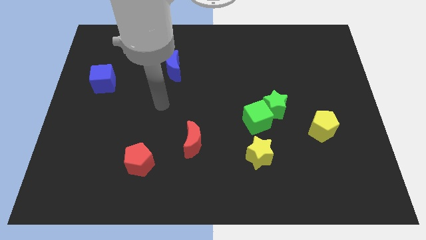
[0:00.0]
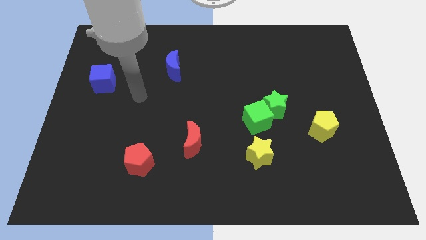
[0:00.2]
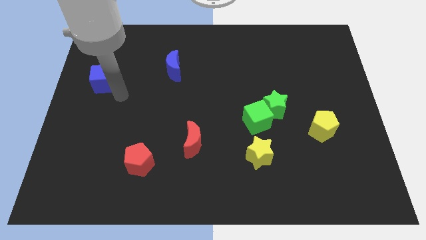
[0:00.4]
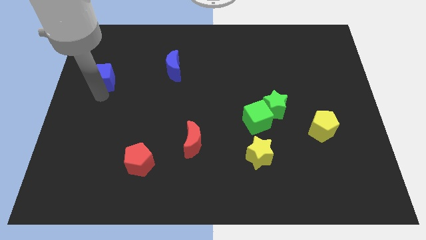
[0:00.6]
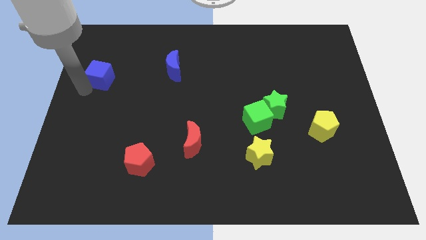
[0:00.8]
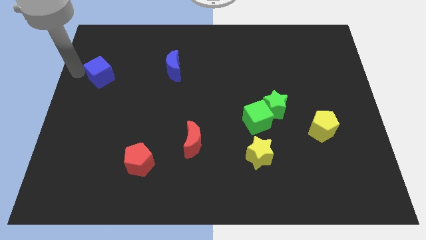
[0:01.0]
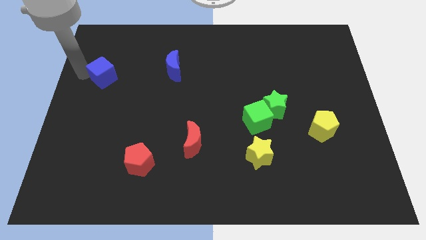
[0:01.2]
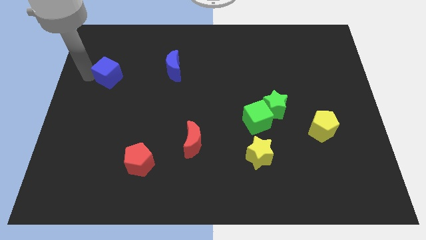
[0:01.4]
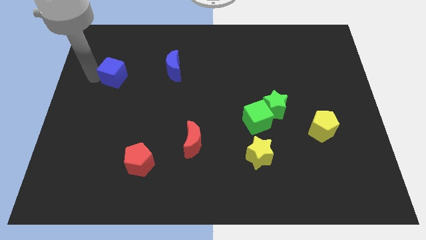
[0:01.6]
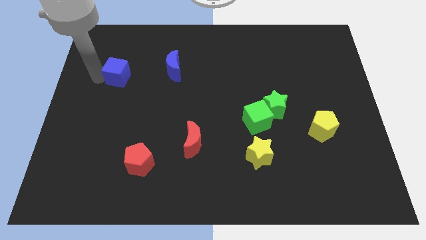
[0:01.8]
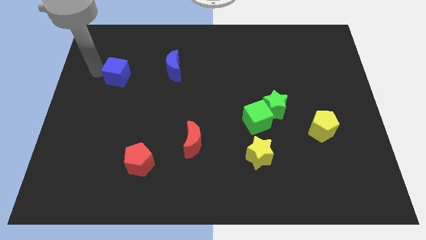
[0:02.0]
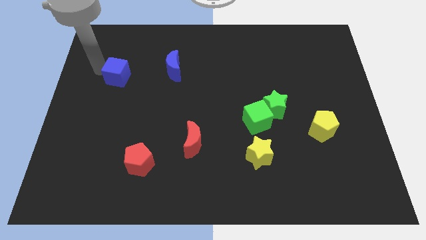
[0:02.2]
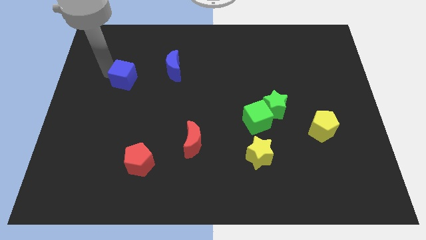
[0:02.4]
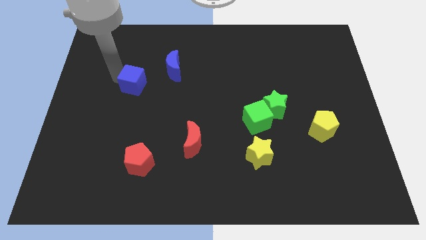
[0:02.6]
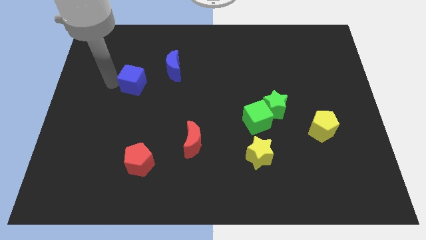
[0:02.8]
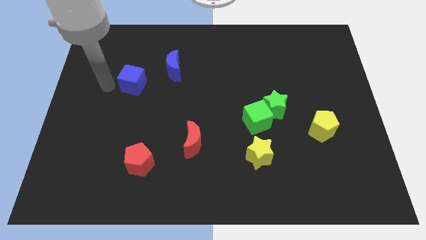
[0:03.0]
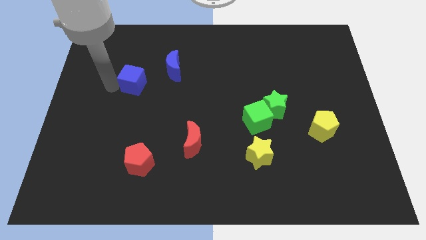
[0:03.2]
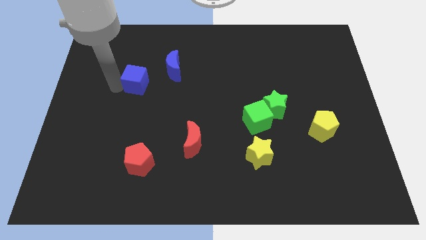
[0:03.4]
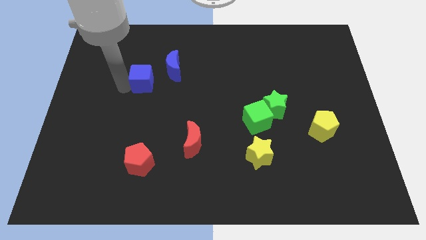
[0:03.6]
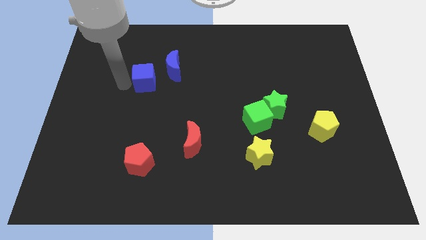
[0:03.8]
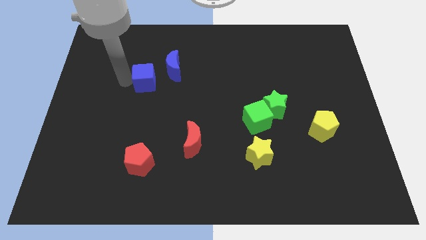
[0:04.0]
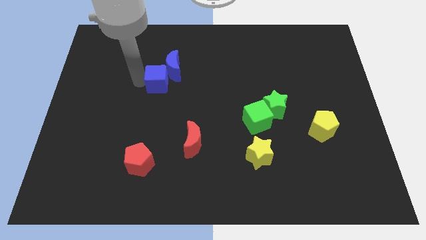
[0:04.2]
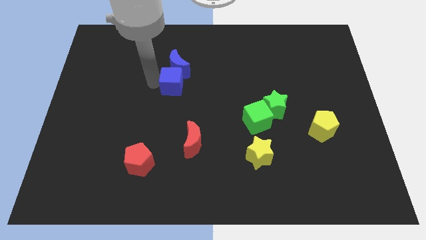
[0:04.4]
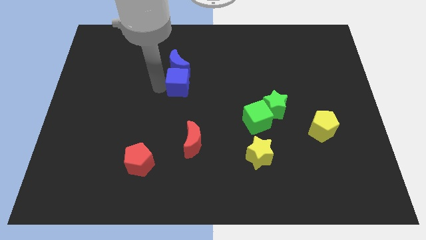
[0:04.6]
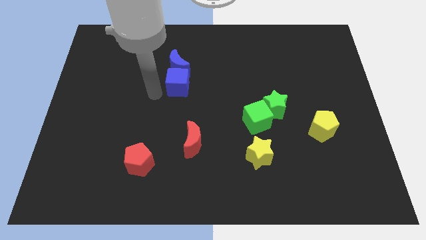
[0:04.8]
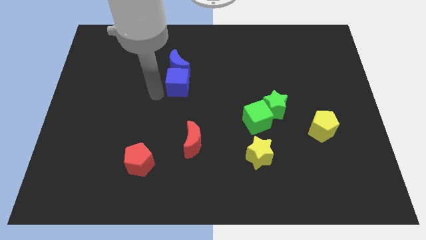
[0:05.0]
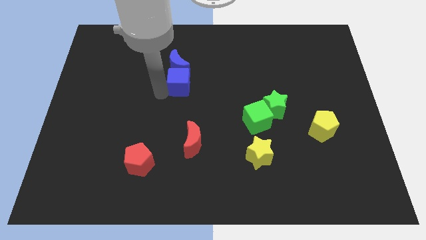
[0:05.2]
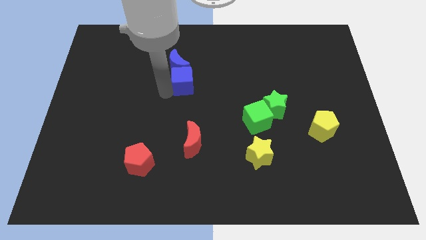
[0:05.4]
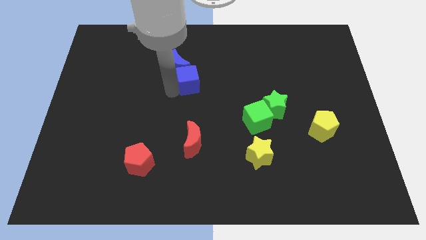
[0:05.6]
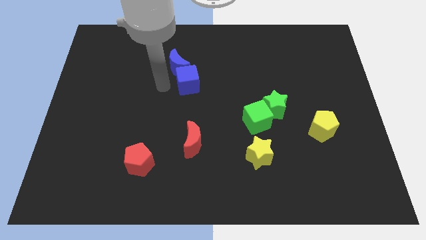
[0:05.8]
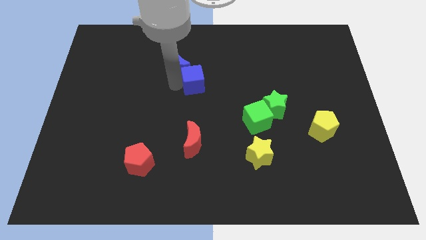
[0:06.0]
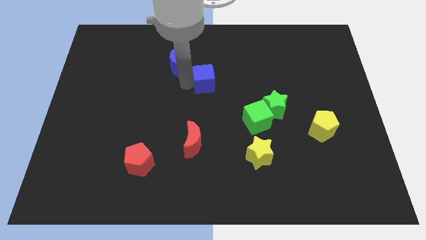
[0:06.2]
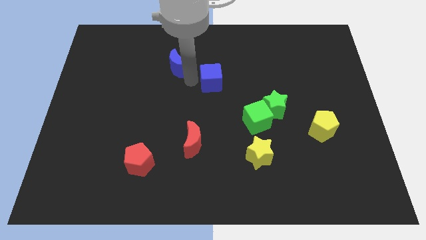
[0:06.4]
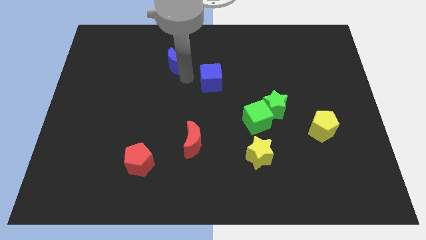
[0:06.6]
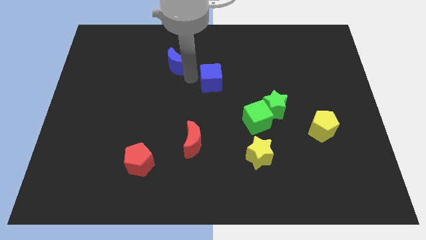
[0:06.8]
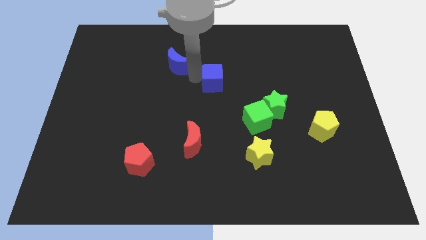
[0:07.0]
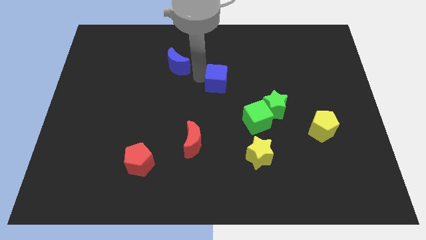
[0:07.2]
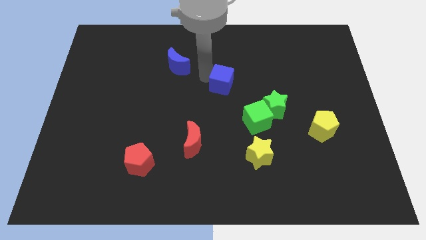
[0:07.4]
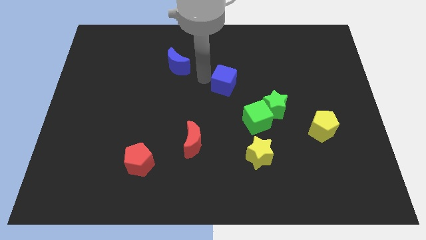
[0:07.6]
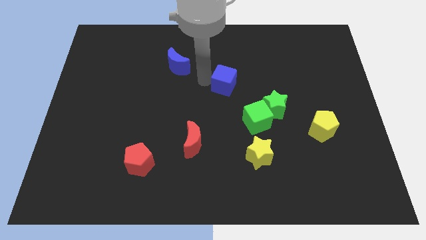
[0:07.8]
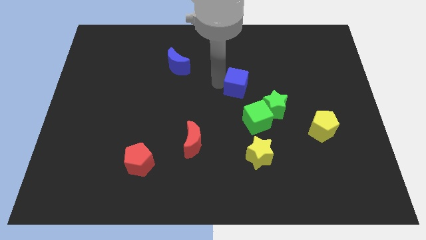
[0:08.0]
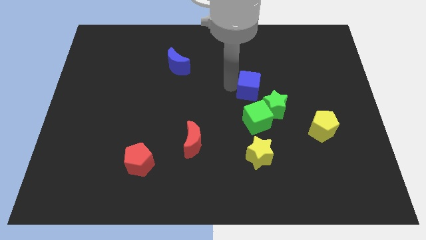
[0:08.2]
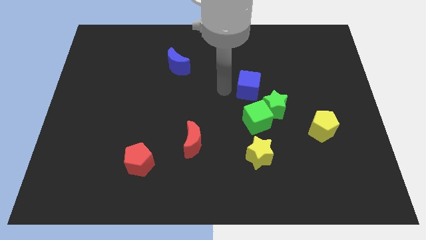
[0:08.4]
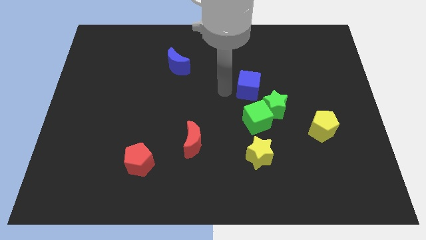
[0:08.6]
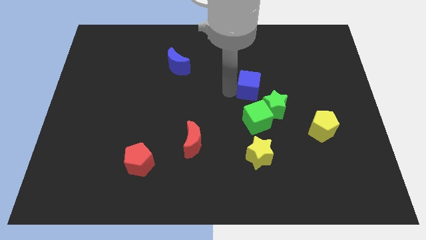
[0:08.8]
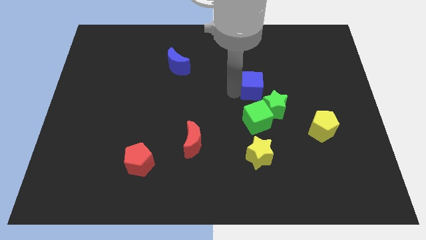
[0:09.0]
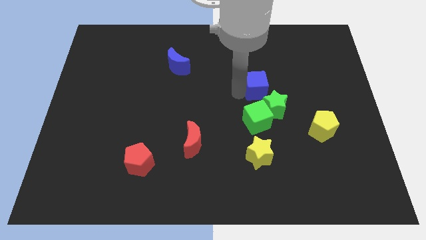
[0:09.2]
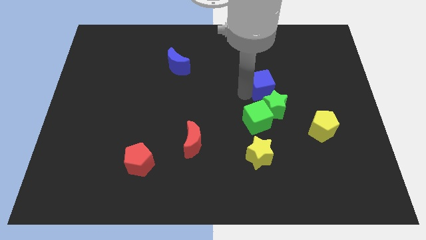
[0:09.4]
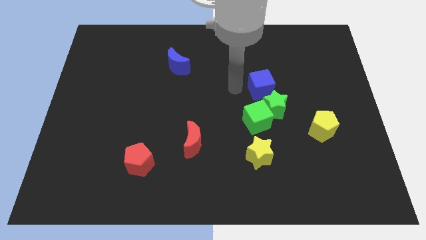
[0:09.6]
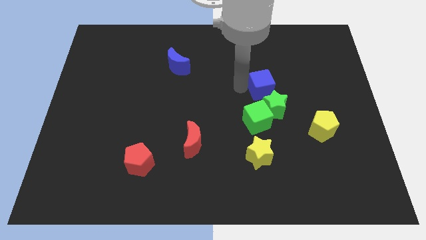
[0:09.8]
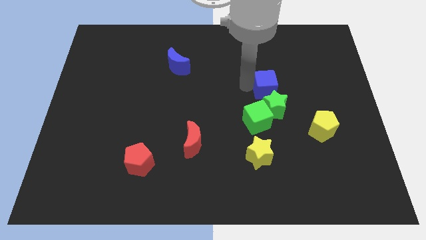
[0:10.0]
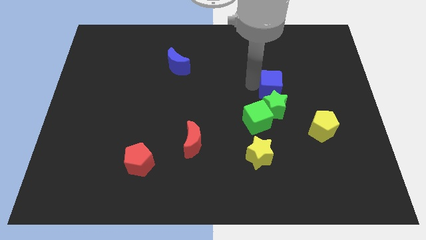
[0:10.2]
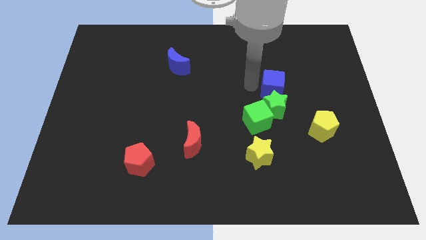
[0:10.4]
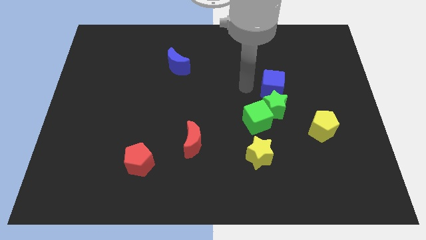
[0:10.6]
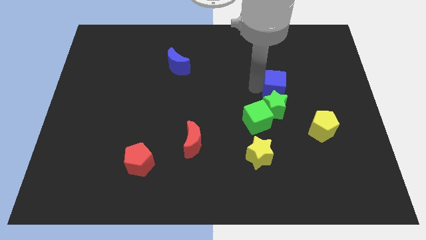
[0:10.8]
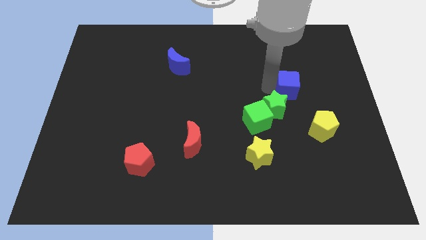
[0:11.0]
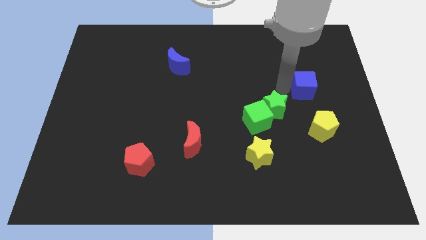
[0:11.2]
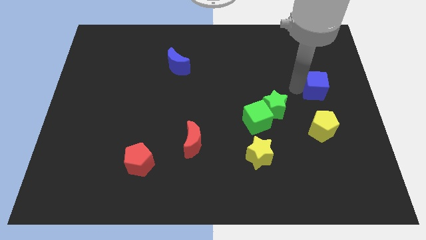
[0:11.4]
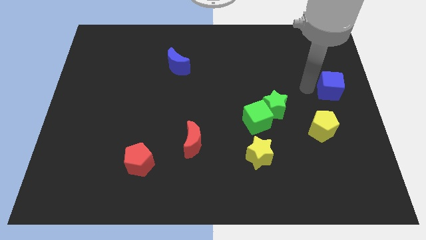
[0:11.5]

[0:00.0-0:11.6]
move the blue cube to the center right

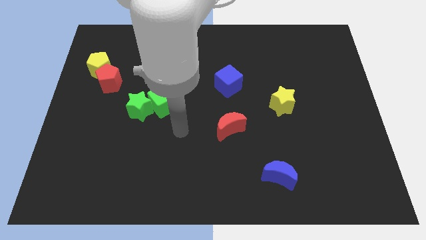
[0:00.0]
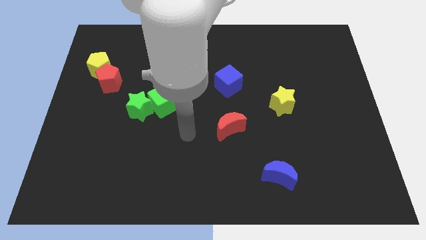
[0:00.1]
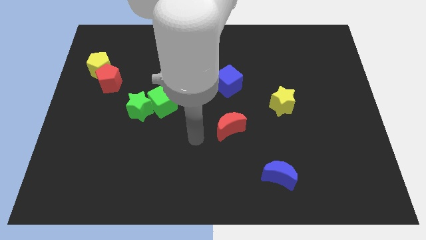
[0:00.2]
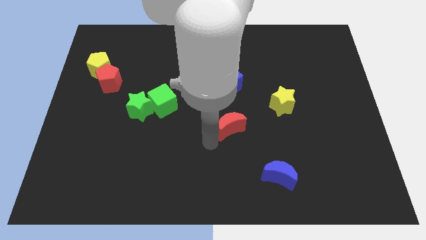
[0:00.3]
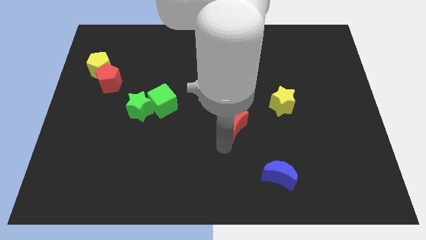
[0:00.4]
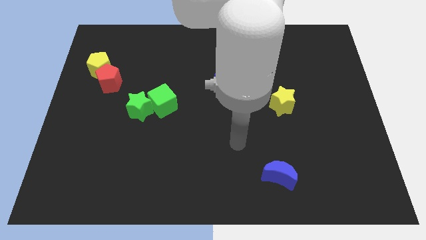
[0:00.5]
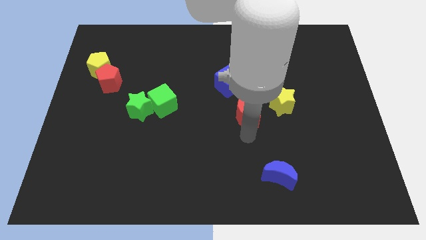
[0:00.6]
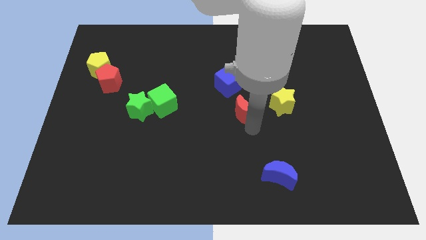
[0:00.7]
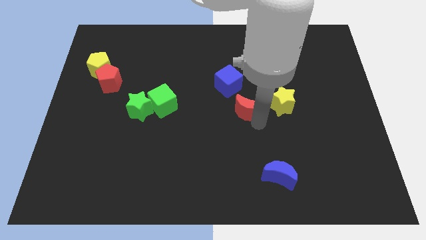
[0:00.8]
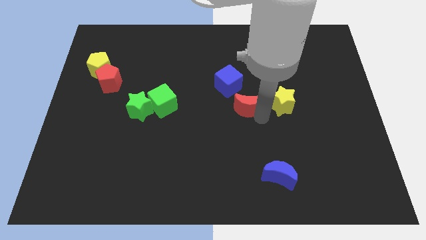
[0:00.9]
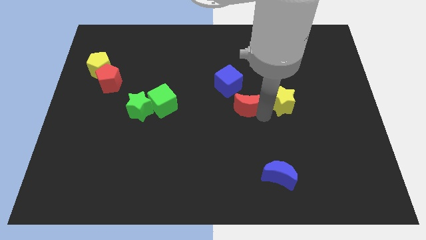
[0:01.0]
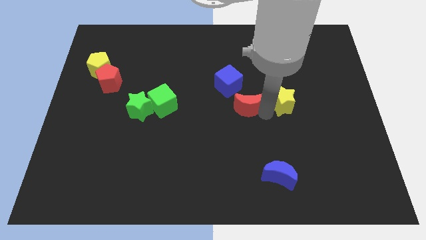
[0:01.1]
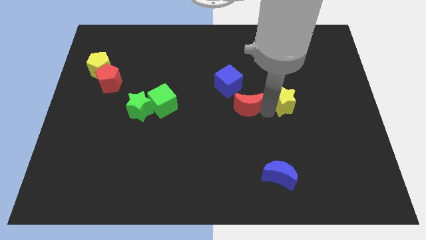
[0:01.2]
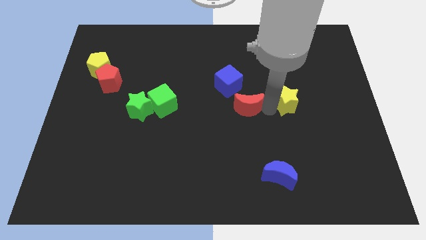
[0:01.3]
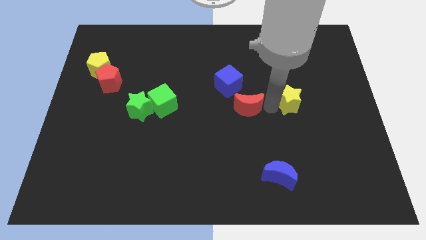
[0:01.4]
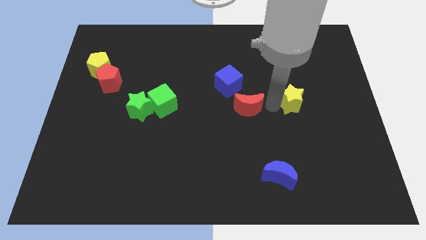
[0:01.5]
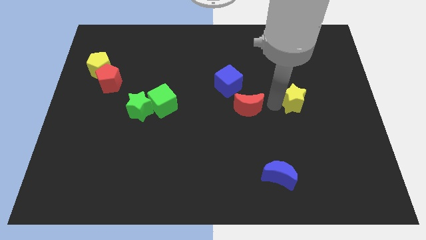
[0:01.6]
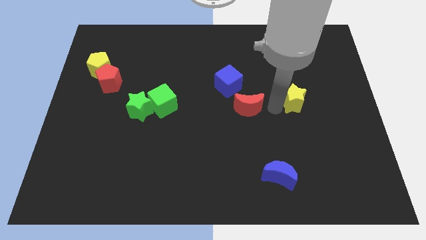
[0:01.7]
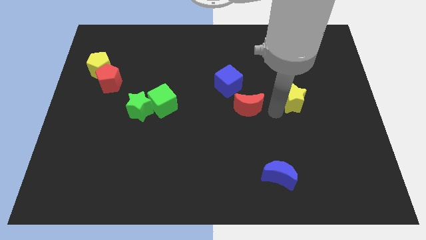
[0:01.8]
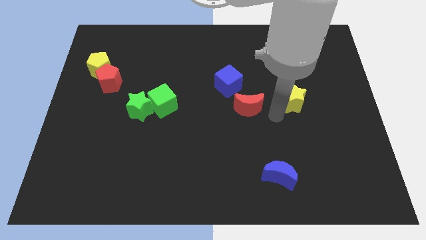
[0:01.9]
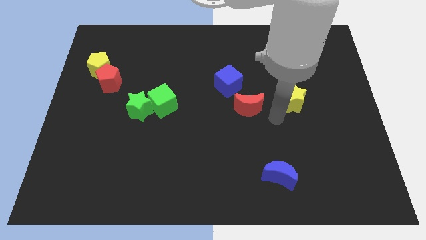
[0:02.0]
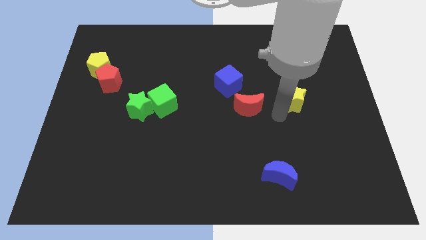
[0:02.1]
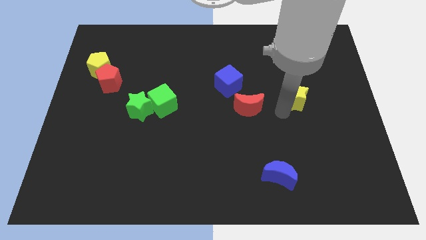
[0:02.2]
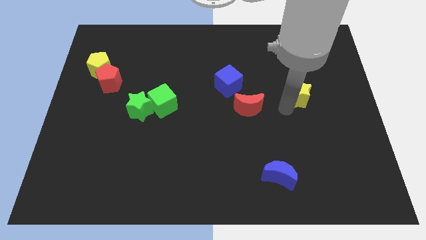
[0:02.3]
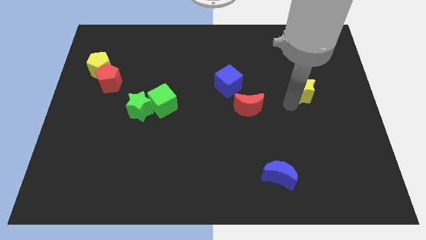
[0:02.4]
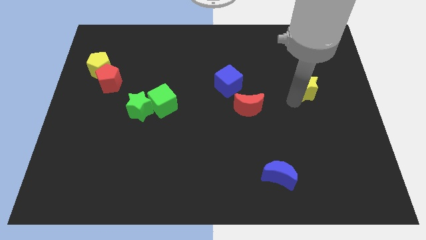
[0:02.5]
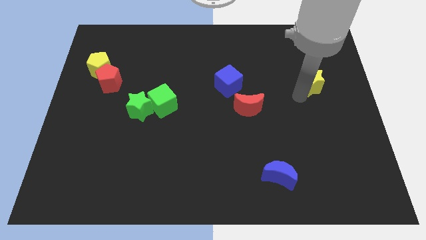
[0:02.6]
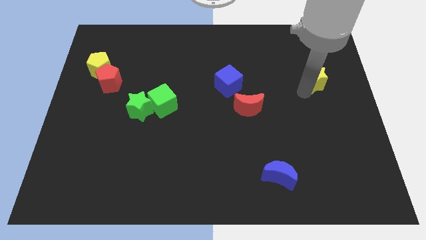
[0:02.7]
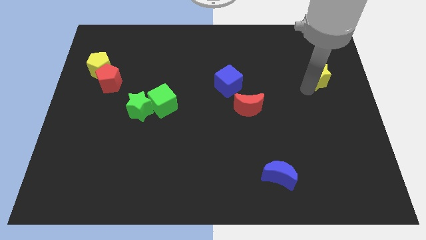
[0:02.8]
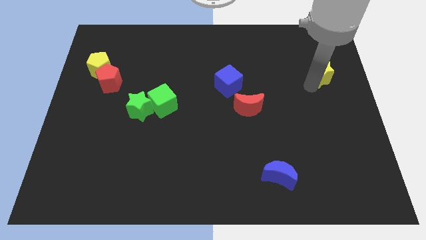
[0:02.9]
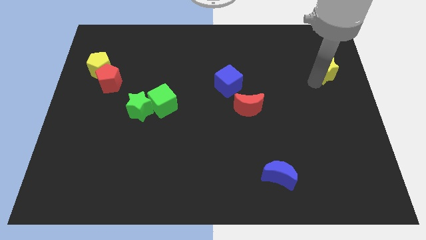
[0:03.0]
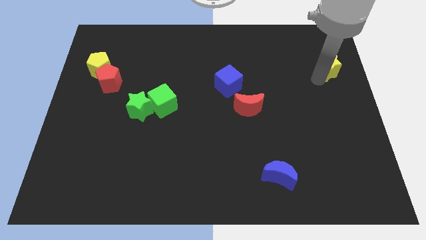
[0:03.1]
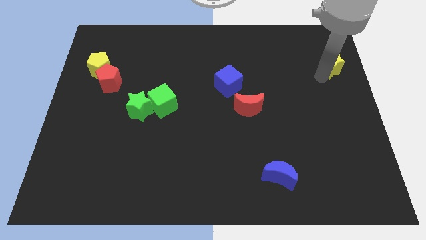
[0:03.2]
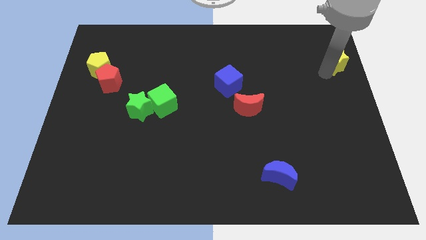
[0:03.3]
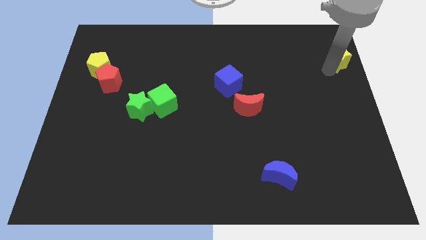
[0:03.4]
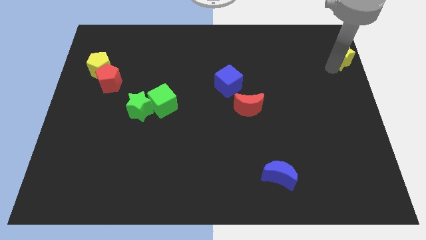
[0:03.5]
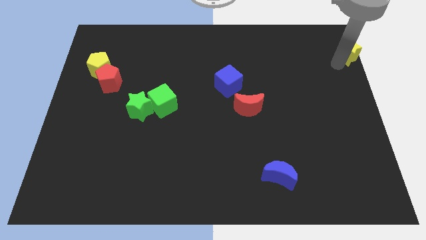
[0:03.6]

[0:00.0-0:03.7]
move the yellow star to the top right corner
